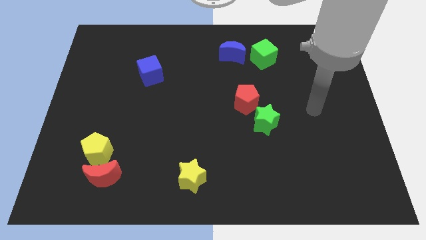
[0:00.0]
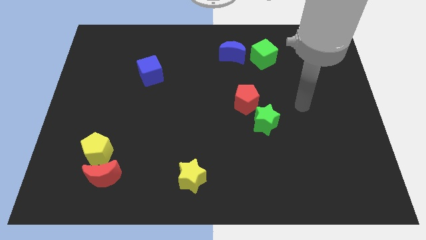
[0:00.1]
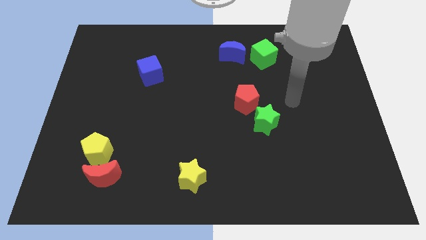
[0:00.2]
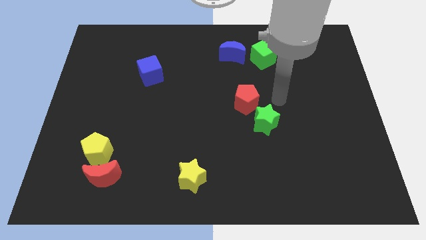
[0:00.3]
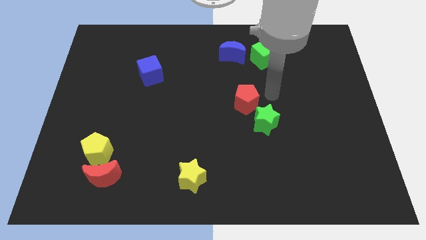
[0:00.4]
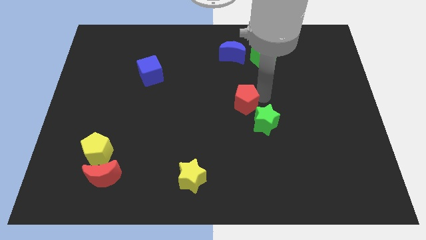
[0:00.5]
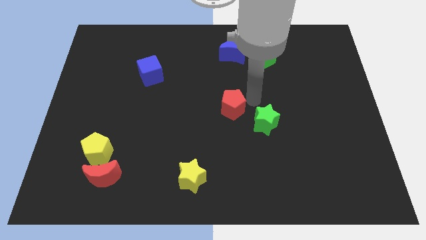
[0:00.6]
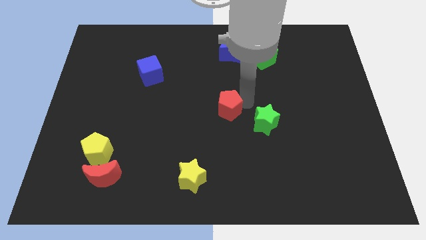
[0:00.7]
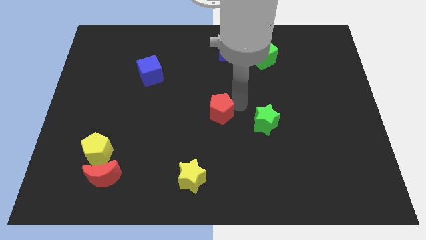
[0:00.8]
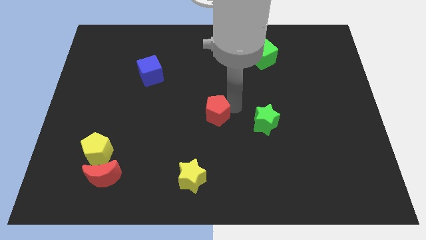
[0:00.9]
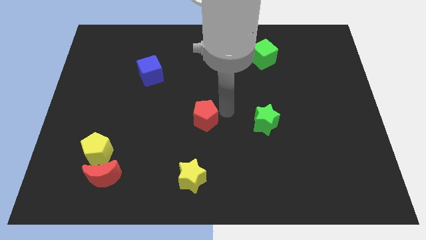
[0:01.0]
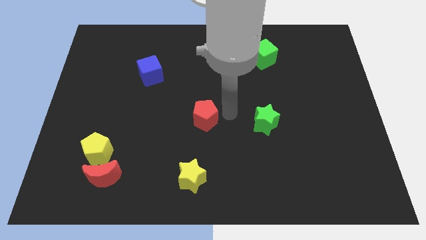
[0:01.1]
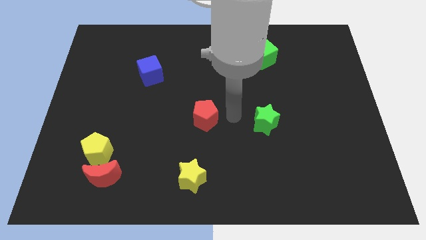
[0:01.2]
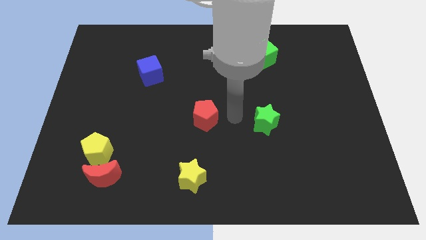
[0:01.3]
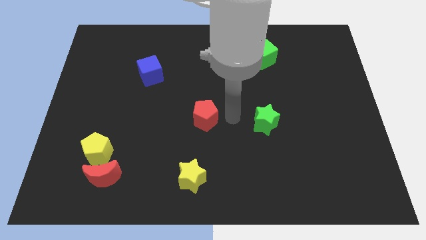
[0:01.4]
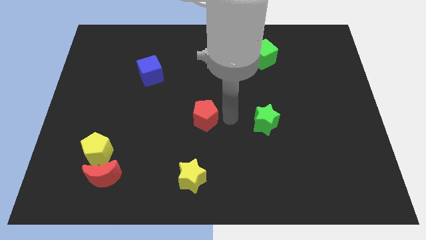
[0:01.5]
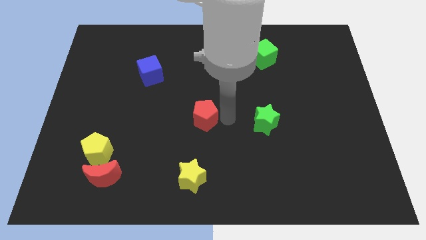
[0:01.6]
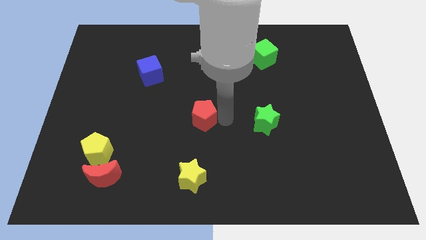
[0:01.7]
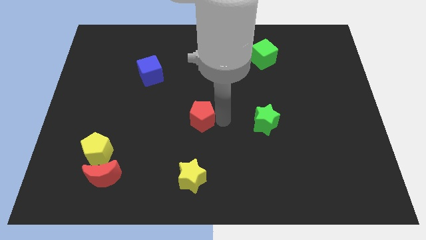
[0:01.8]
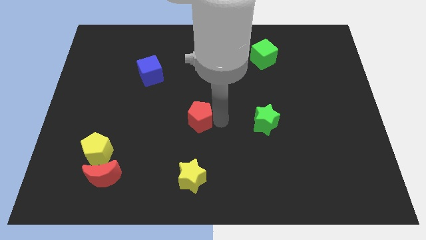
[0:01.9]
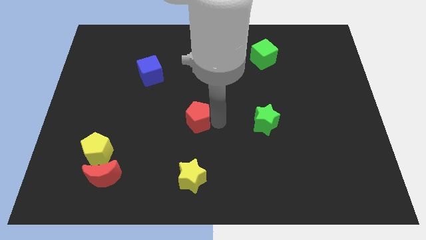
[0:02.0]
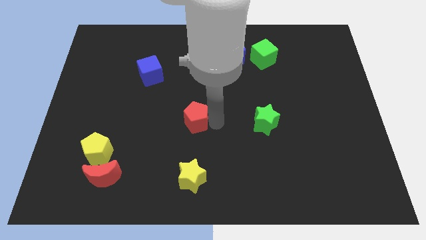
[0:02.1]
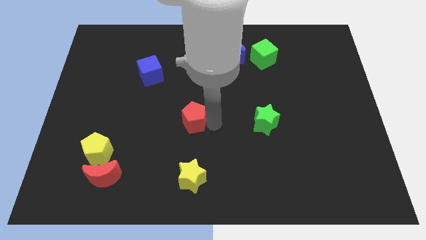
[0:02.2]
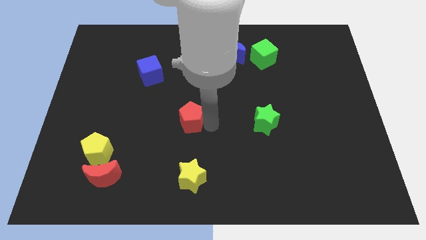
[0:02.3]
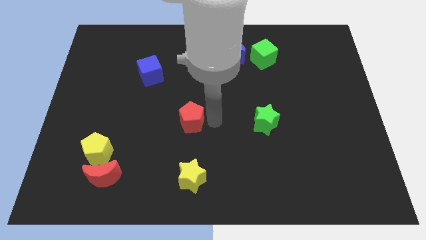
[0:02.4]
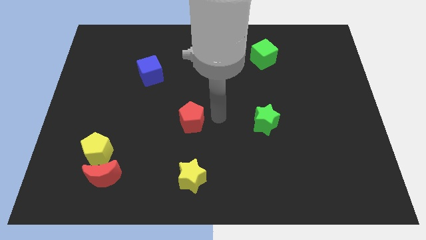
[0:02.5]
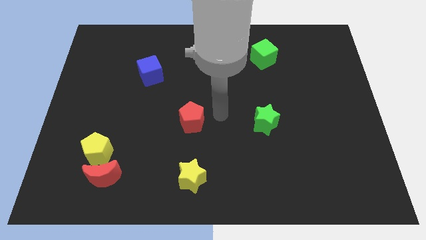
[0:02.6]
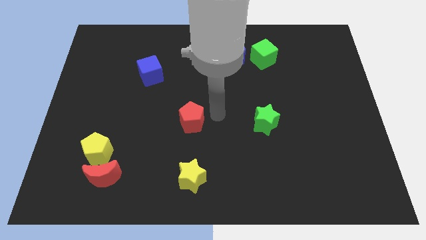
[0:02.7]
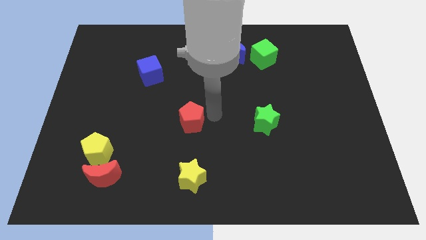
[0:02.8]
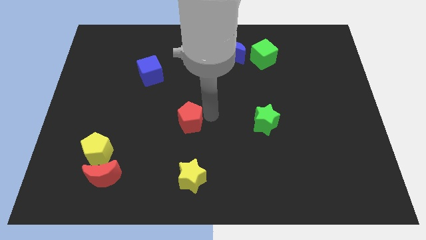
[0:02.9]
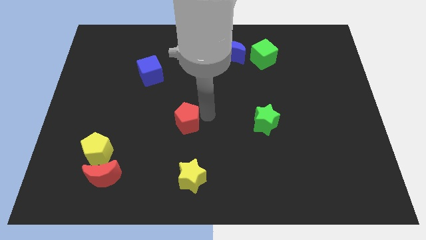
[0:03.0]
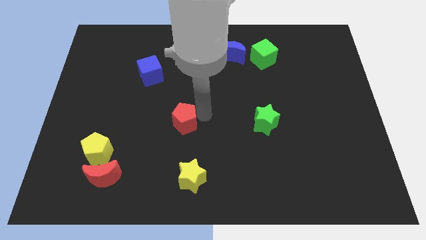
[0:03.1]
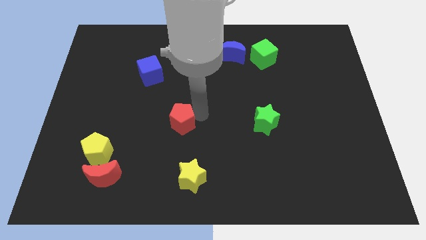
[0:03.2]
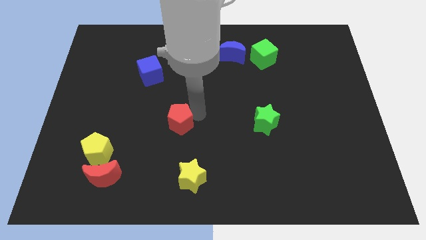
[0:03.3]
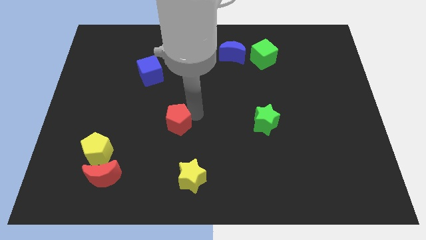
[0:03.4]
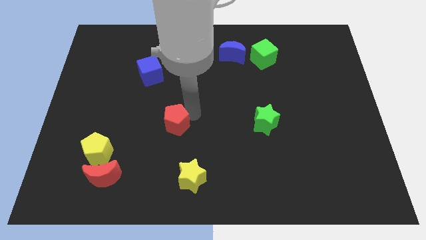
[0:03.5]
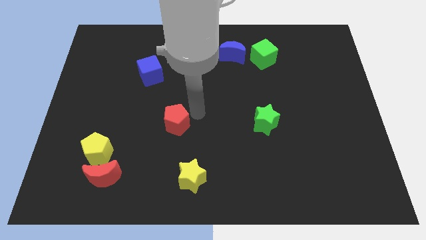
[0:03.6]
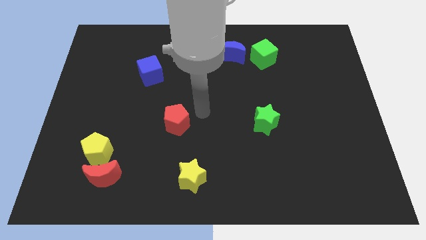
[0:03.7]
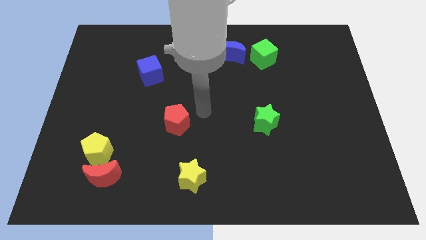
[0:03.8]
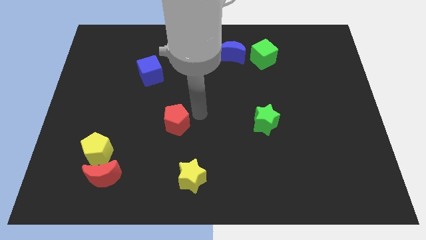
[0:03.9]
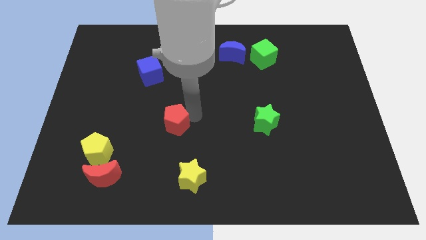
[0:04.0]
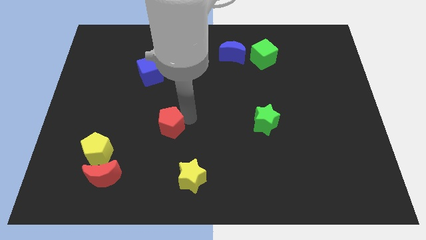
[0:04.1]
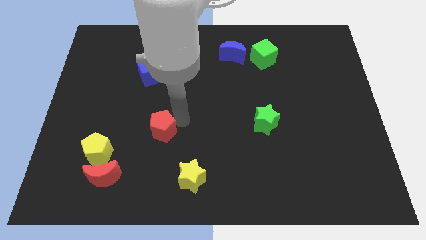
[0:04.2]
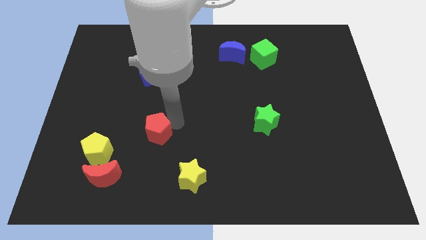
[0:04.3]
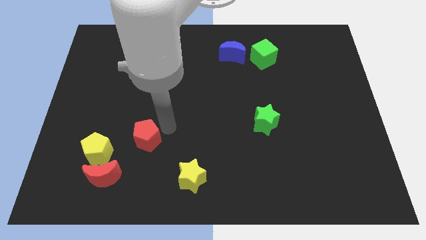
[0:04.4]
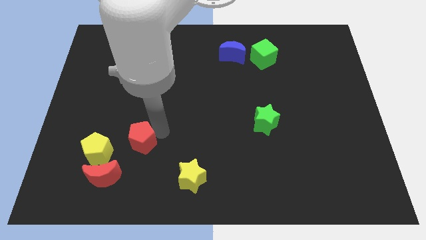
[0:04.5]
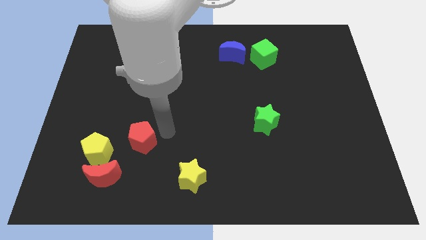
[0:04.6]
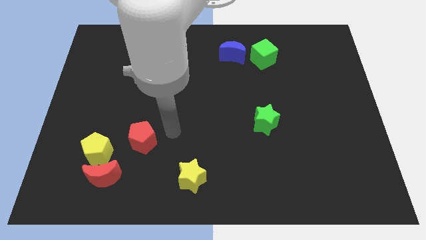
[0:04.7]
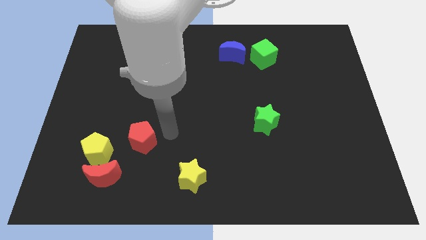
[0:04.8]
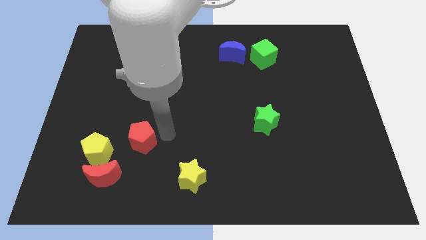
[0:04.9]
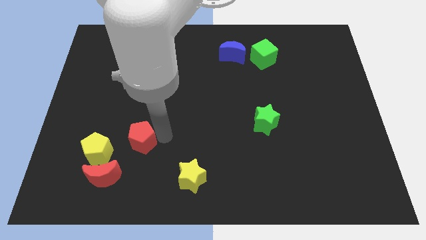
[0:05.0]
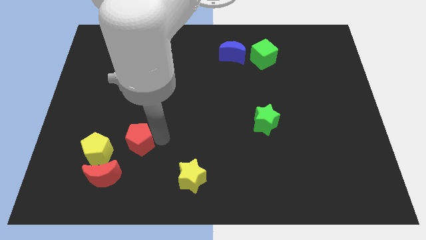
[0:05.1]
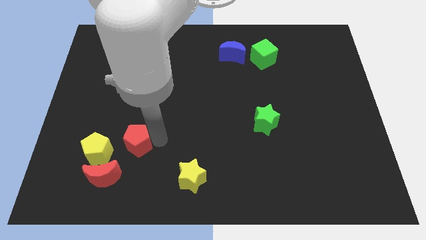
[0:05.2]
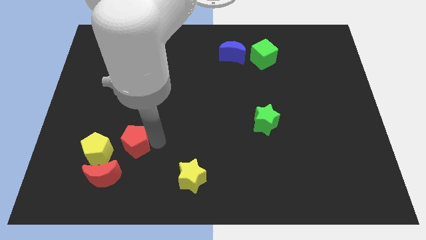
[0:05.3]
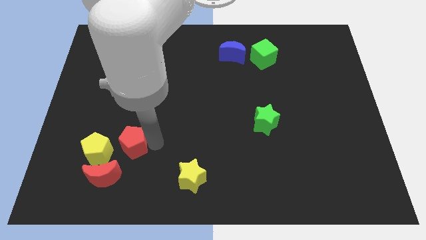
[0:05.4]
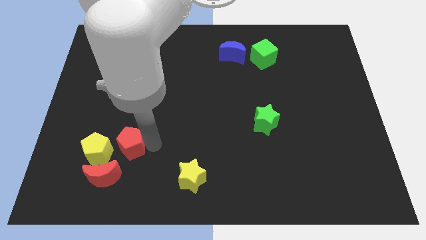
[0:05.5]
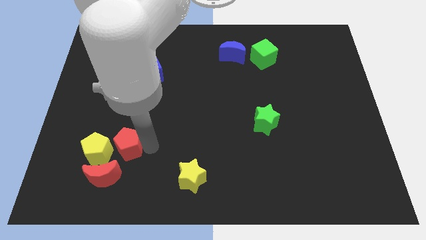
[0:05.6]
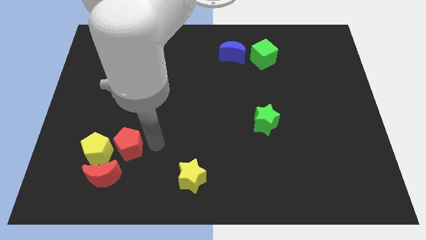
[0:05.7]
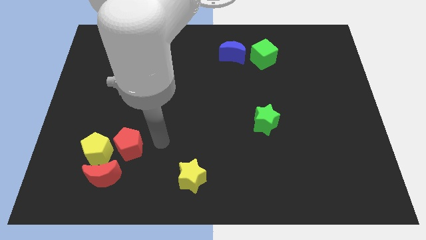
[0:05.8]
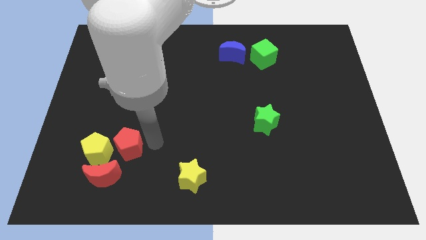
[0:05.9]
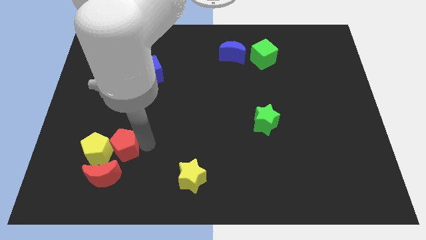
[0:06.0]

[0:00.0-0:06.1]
slide the red pentagon close to the yellow pentagon

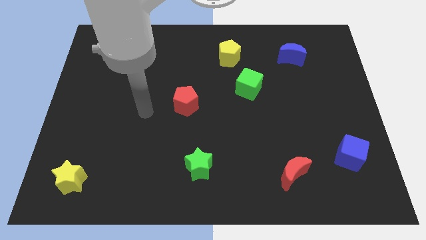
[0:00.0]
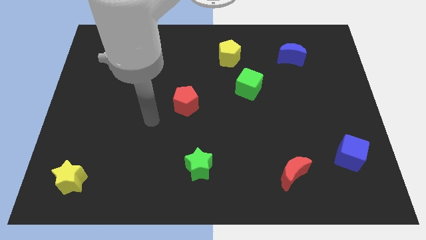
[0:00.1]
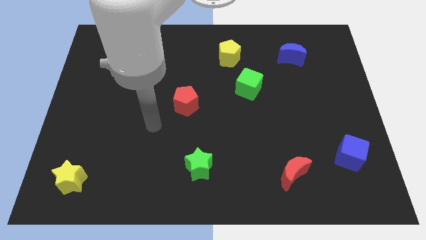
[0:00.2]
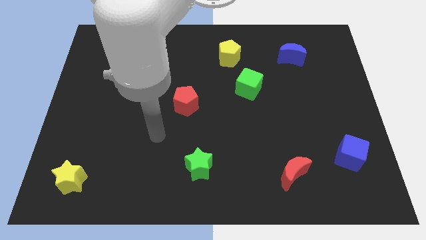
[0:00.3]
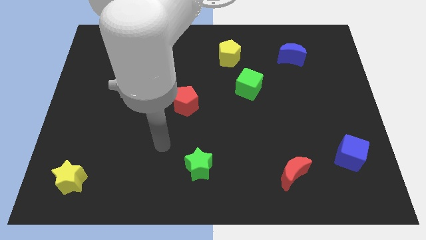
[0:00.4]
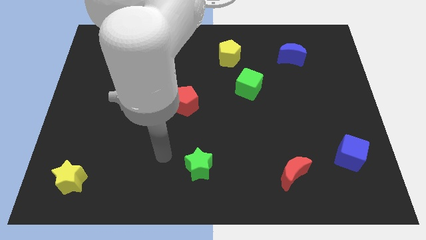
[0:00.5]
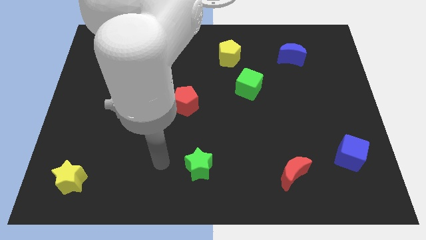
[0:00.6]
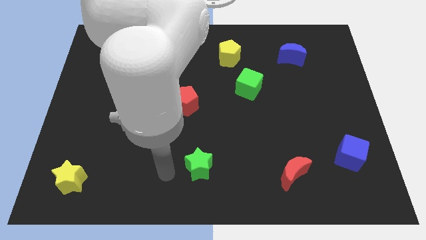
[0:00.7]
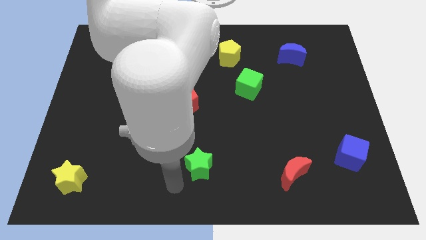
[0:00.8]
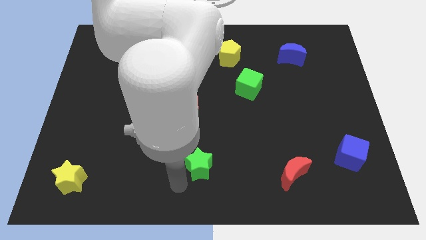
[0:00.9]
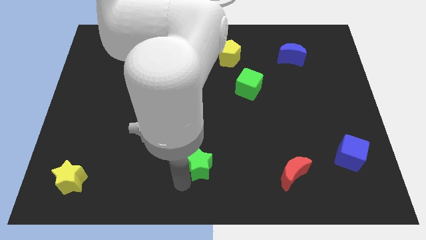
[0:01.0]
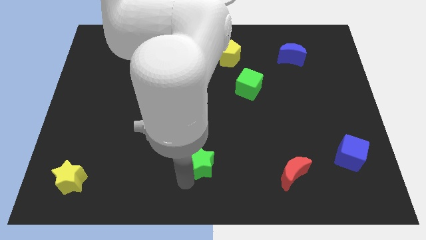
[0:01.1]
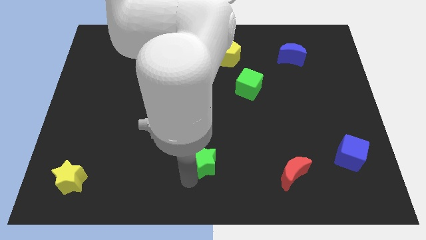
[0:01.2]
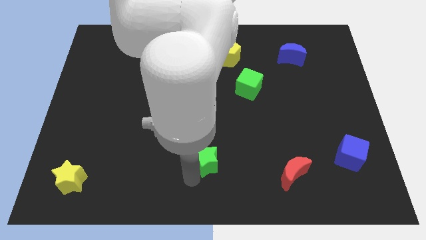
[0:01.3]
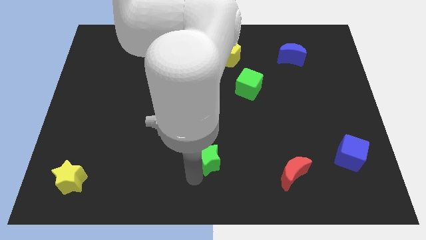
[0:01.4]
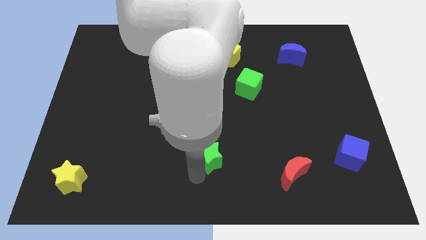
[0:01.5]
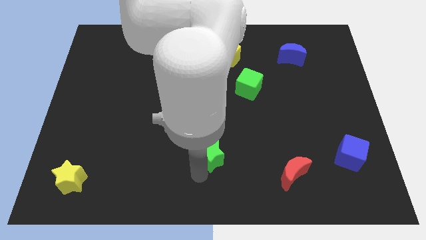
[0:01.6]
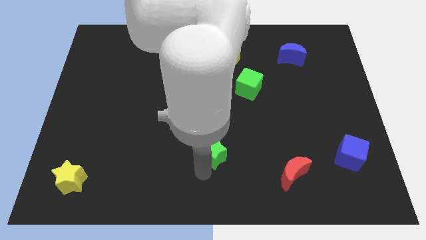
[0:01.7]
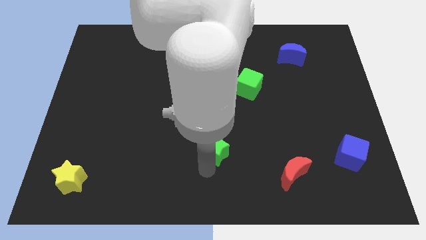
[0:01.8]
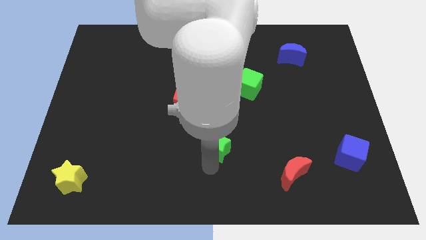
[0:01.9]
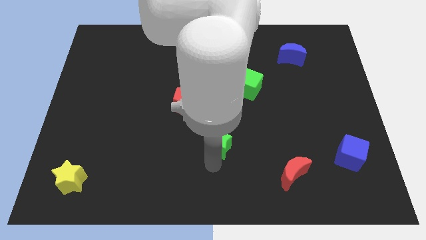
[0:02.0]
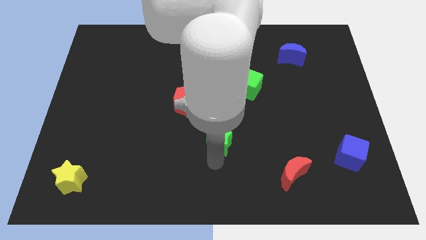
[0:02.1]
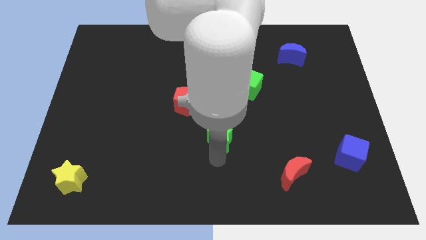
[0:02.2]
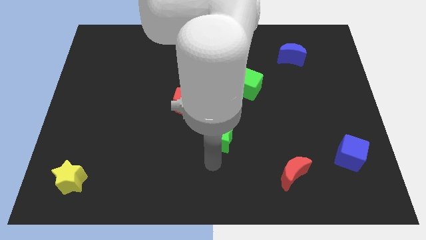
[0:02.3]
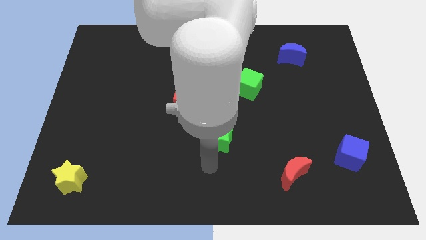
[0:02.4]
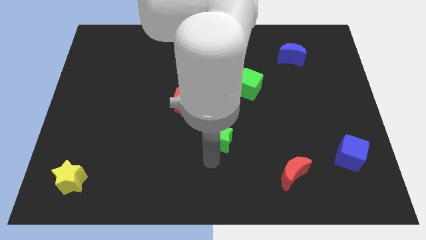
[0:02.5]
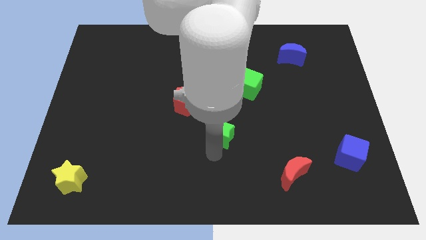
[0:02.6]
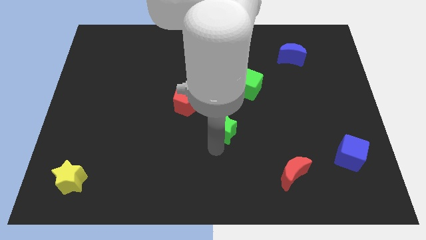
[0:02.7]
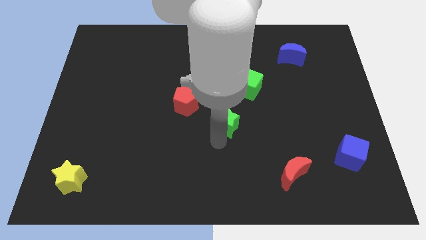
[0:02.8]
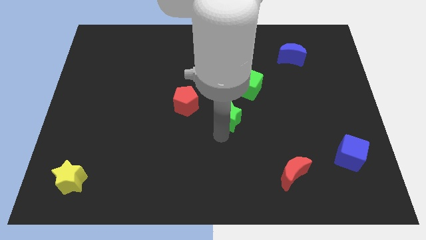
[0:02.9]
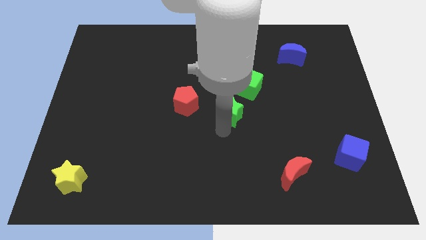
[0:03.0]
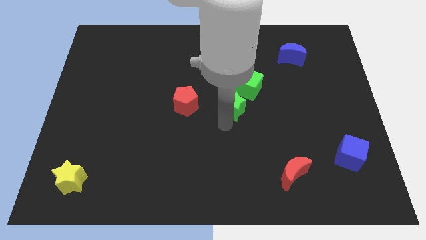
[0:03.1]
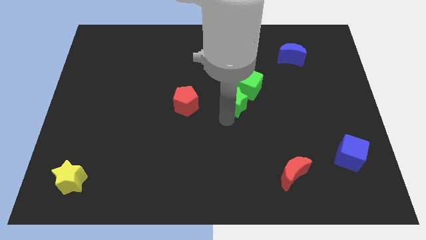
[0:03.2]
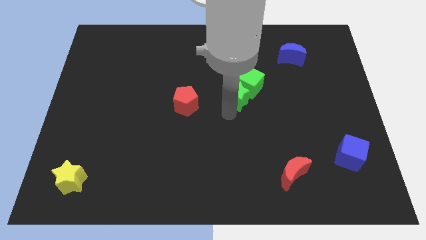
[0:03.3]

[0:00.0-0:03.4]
put the green star to the green cube
